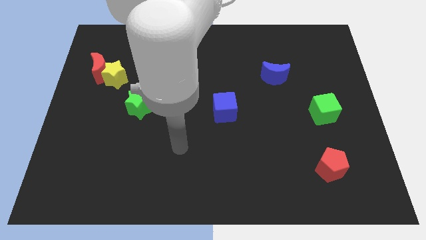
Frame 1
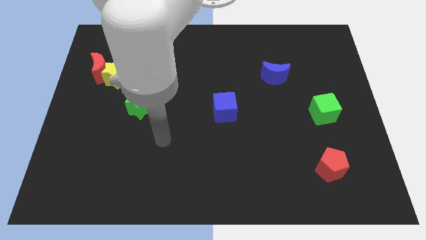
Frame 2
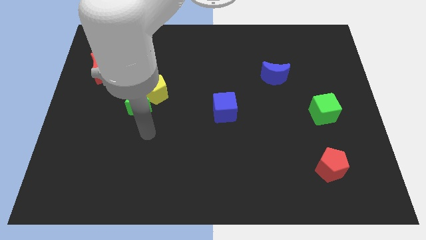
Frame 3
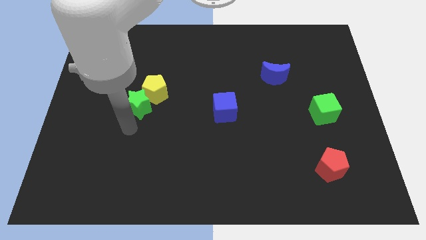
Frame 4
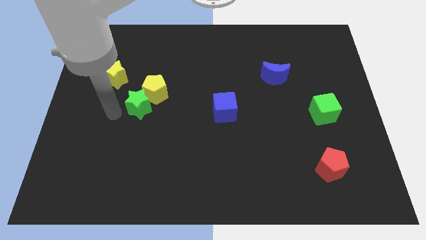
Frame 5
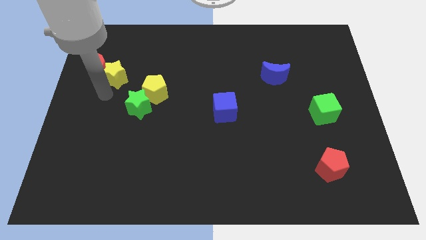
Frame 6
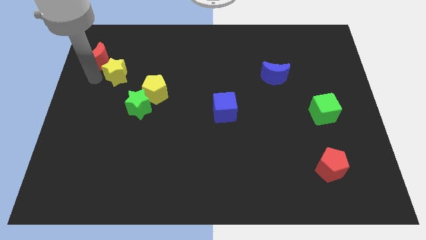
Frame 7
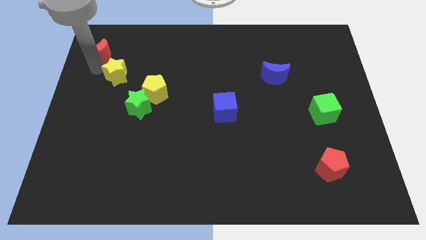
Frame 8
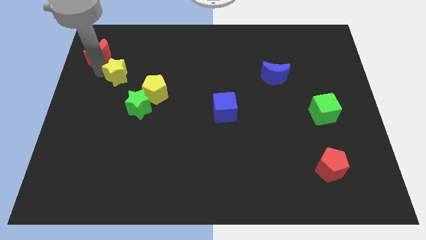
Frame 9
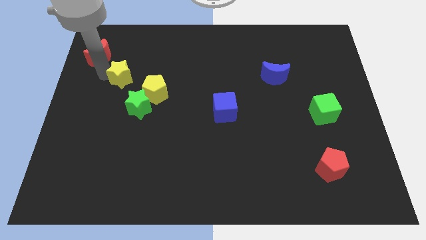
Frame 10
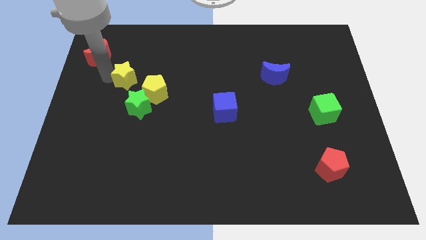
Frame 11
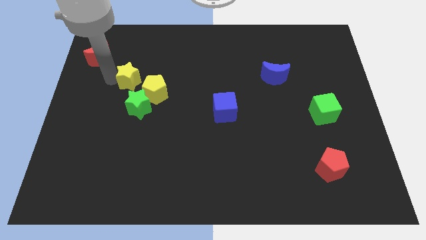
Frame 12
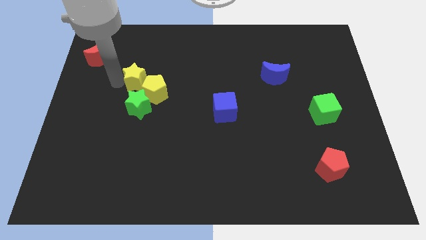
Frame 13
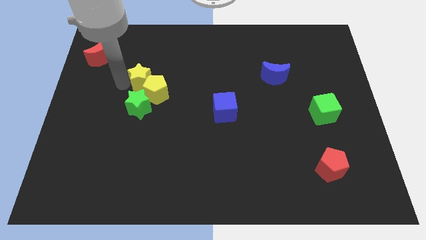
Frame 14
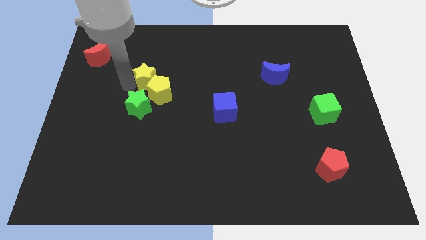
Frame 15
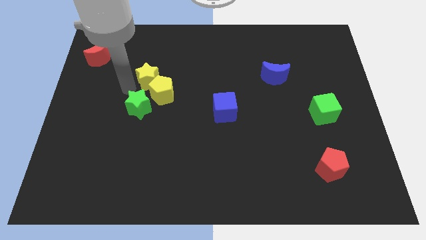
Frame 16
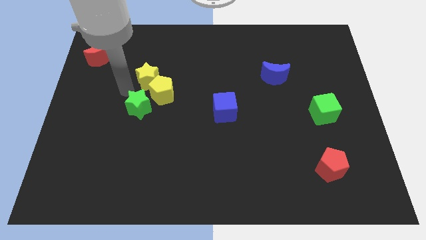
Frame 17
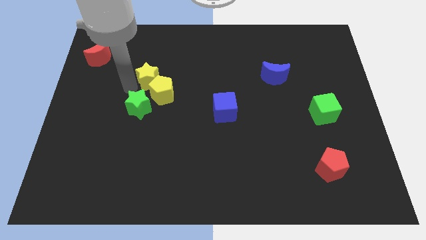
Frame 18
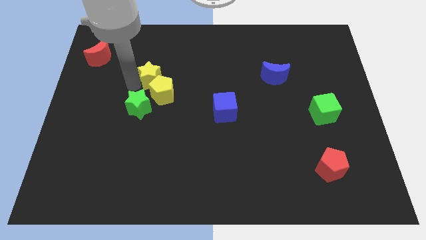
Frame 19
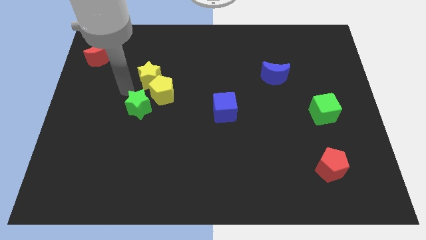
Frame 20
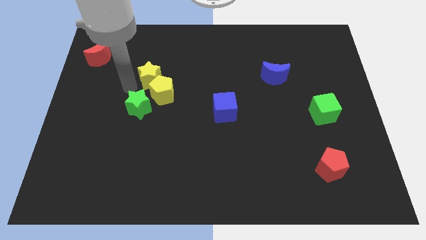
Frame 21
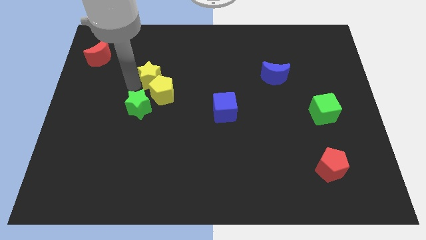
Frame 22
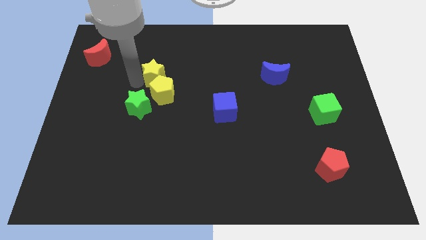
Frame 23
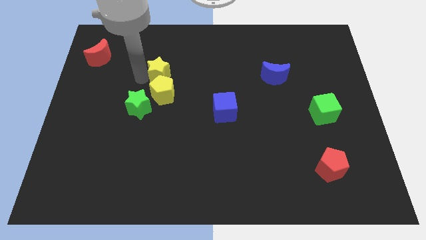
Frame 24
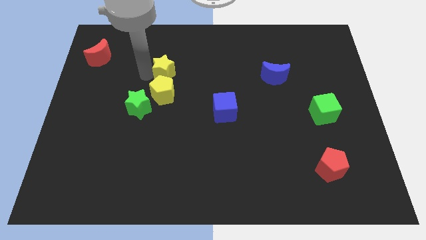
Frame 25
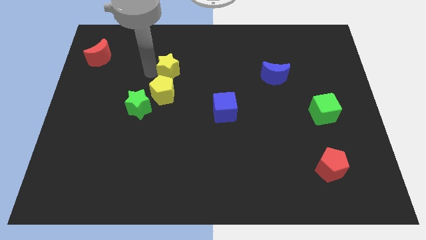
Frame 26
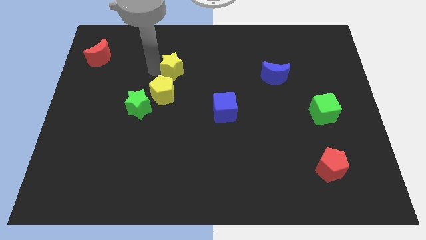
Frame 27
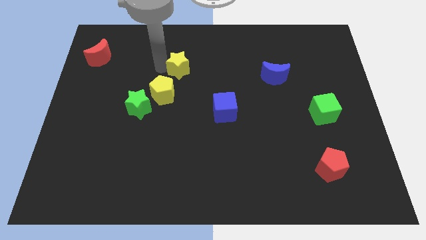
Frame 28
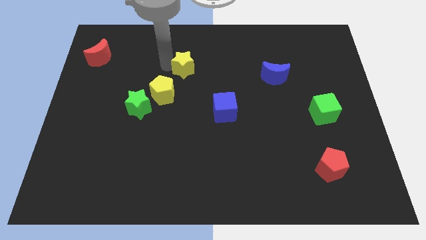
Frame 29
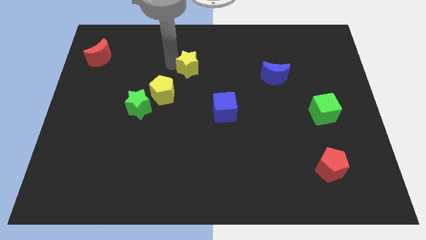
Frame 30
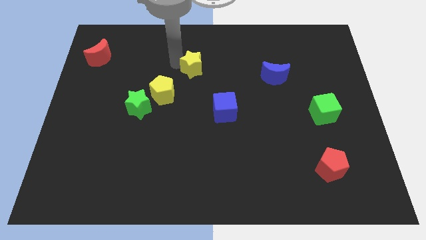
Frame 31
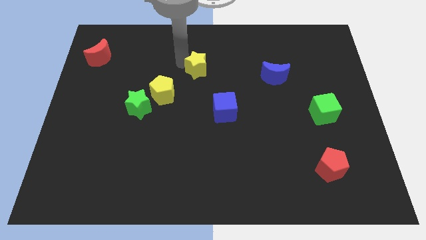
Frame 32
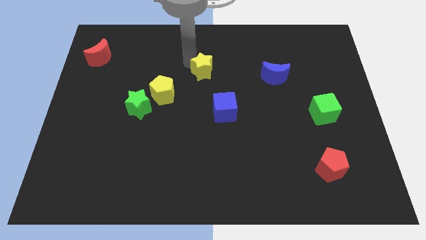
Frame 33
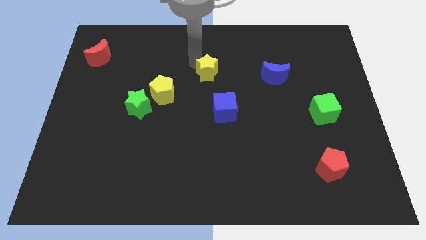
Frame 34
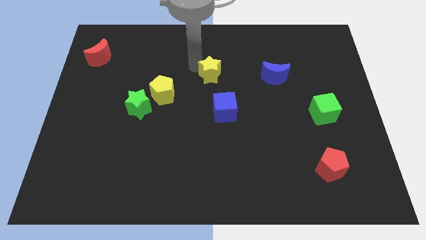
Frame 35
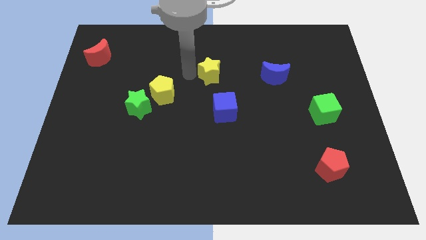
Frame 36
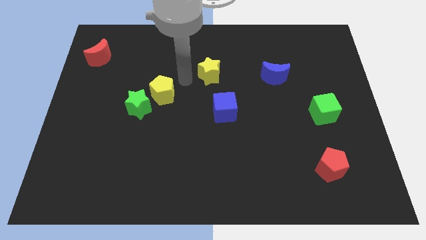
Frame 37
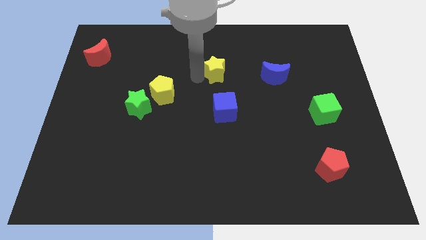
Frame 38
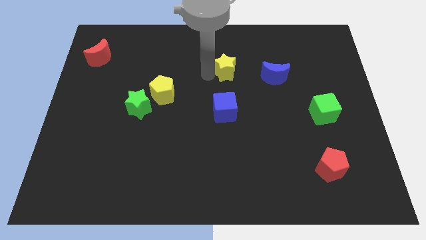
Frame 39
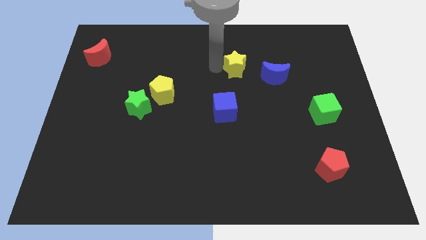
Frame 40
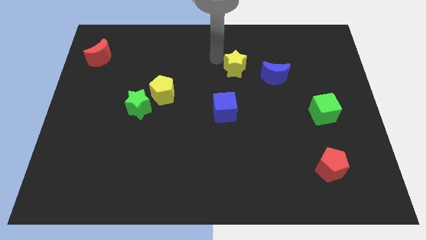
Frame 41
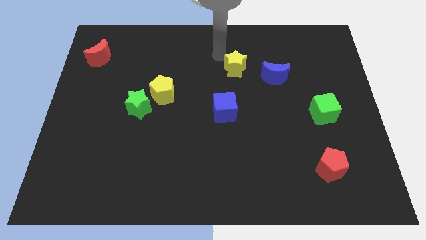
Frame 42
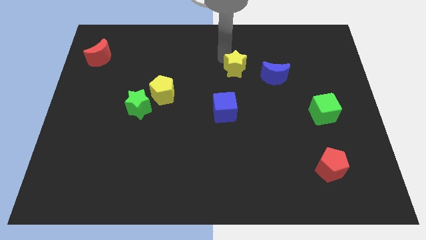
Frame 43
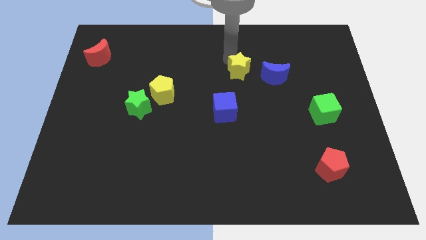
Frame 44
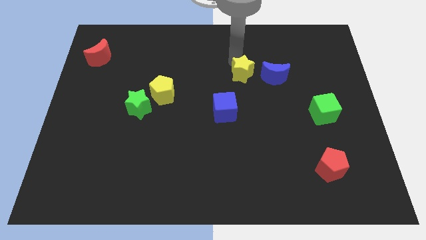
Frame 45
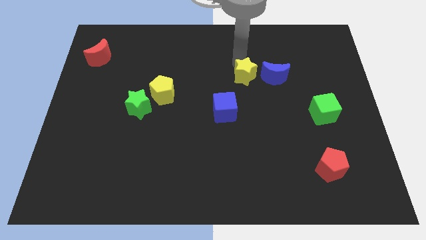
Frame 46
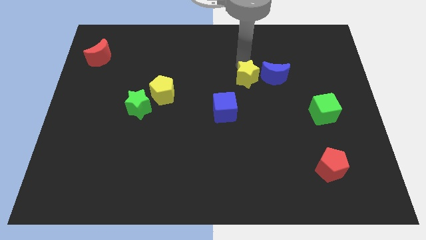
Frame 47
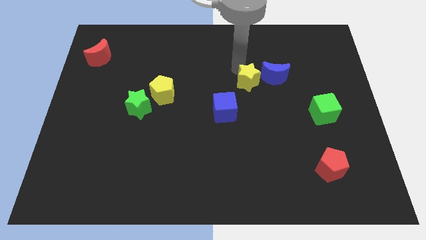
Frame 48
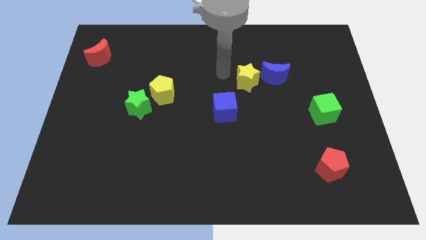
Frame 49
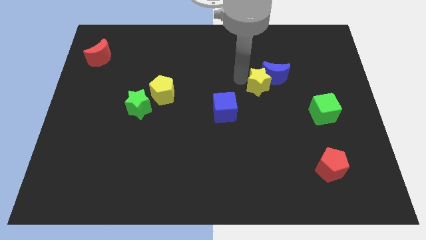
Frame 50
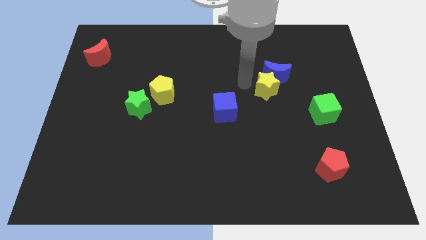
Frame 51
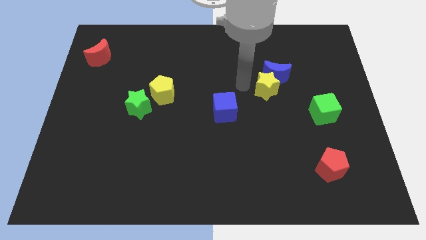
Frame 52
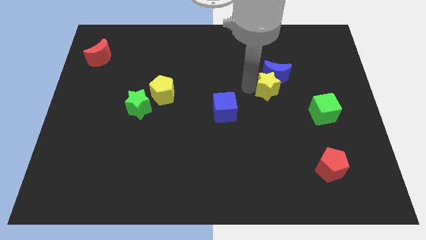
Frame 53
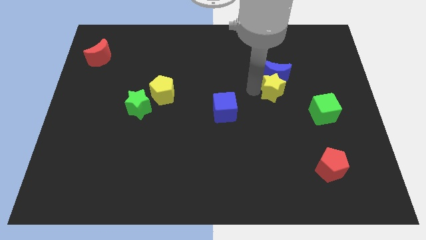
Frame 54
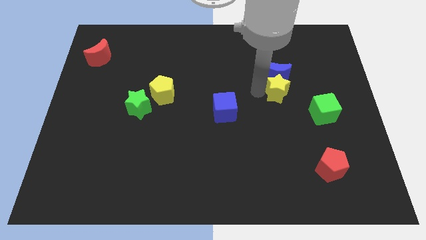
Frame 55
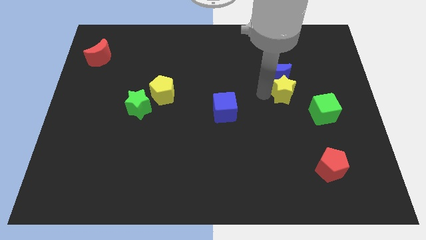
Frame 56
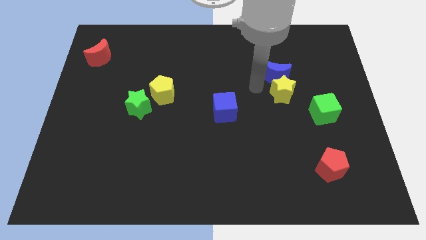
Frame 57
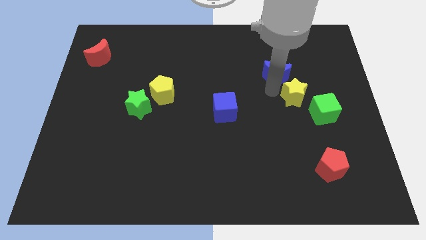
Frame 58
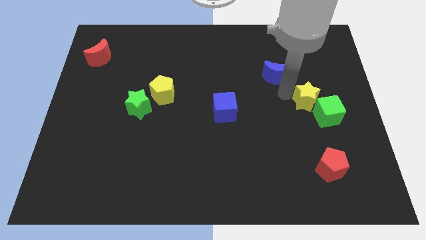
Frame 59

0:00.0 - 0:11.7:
slide the yellow star to the green cube

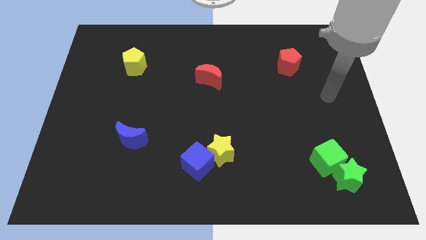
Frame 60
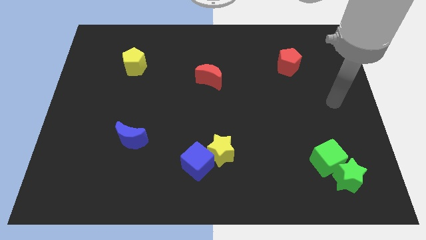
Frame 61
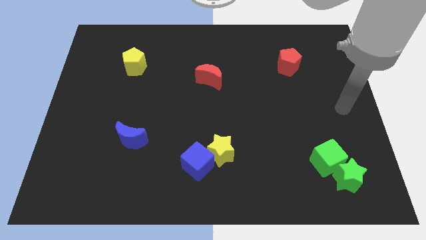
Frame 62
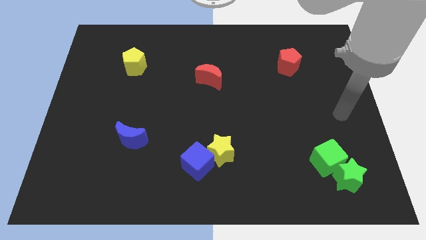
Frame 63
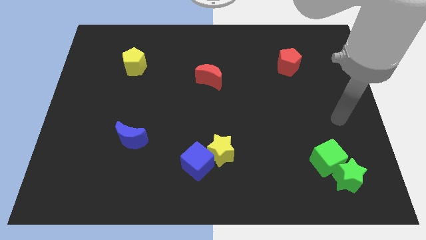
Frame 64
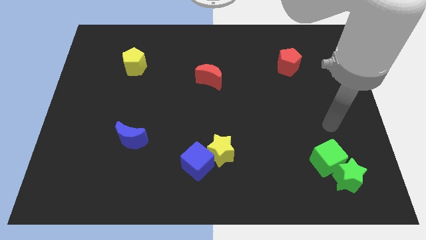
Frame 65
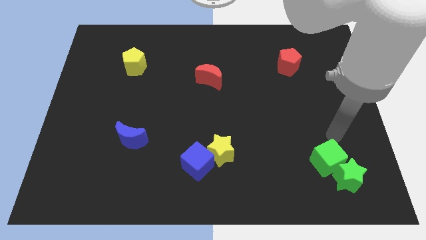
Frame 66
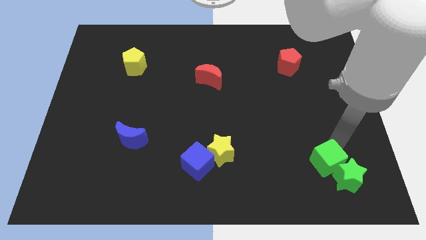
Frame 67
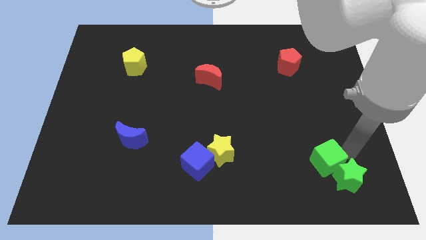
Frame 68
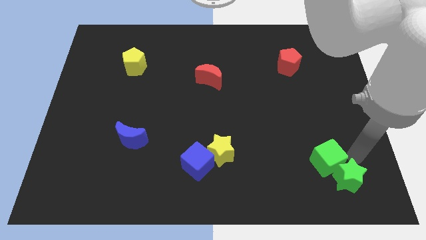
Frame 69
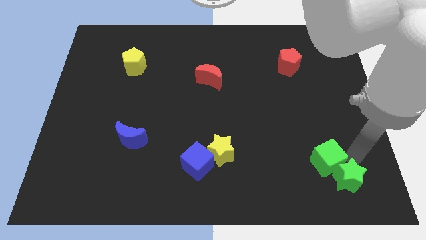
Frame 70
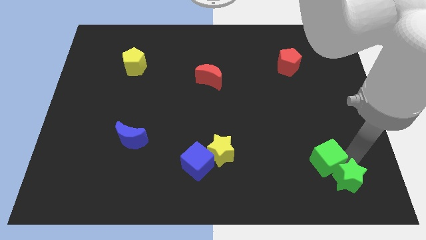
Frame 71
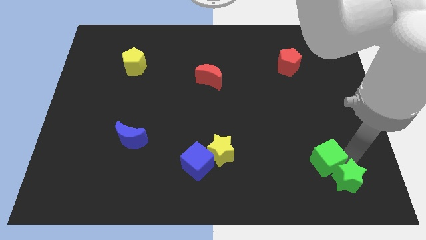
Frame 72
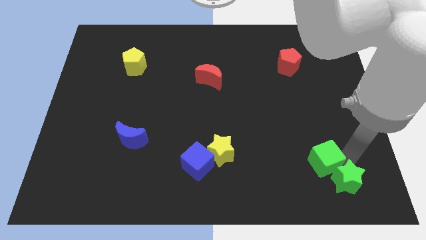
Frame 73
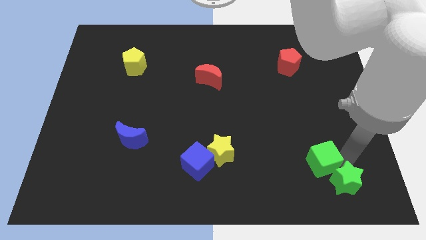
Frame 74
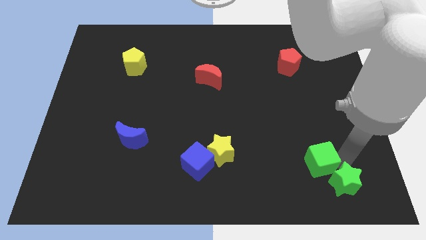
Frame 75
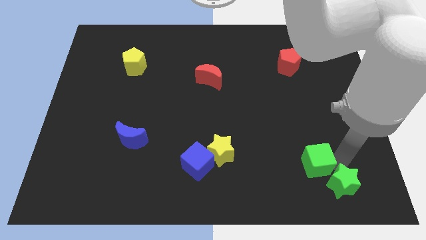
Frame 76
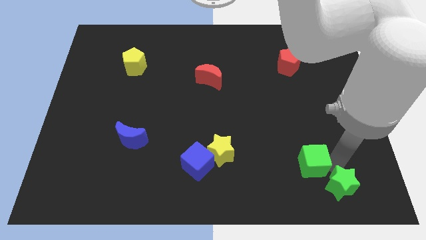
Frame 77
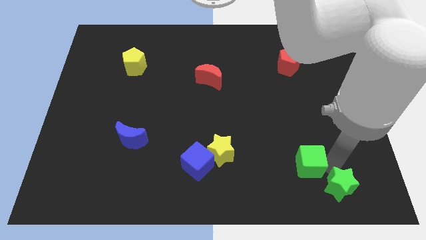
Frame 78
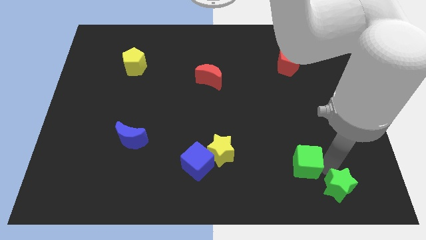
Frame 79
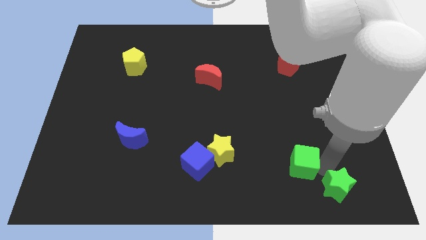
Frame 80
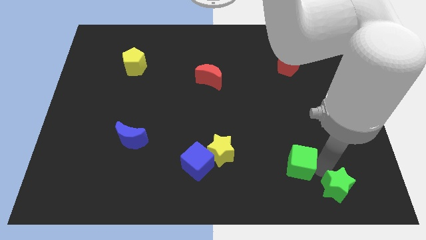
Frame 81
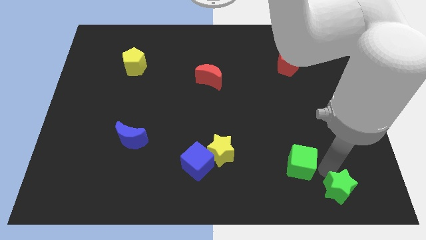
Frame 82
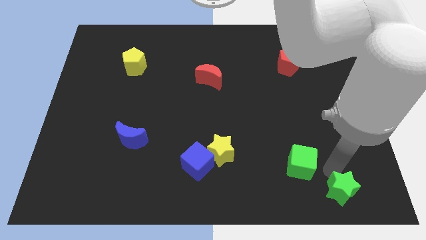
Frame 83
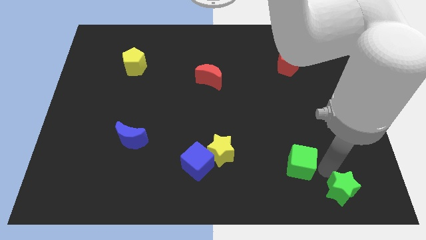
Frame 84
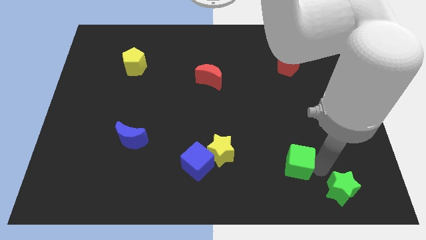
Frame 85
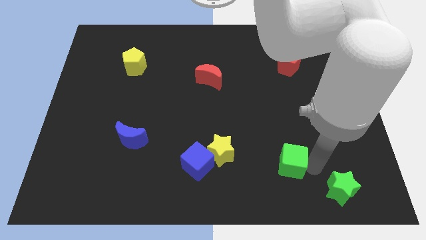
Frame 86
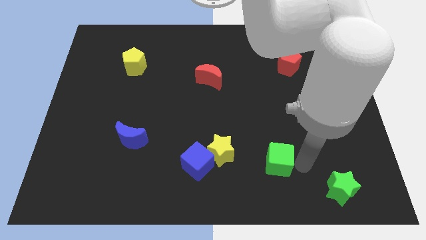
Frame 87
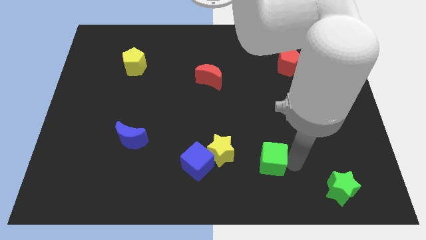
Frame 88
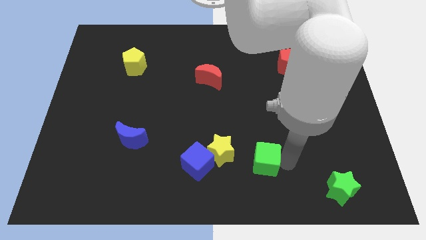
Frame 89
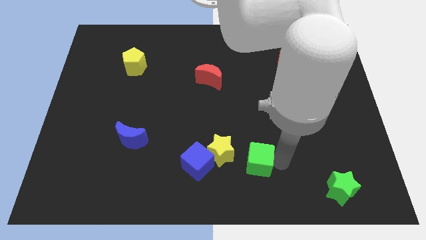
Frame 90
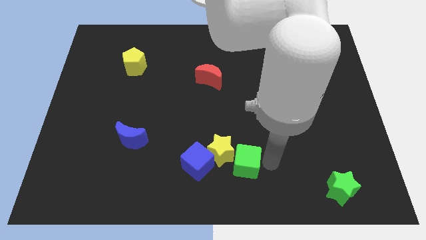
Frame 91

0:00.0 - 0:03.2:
move the green cube close to the yellow star
